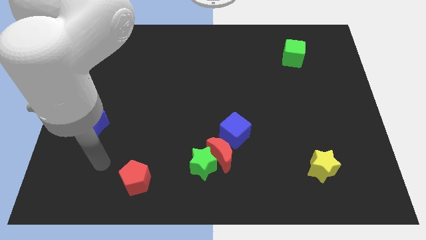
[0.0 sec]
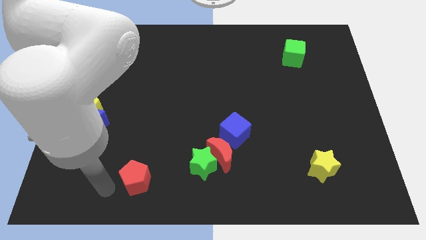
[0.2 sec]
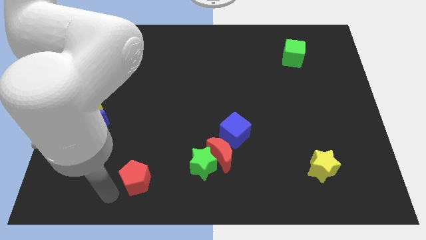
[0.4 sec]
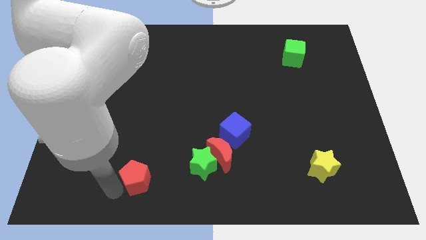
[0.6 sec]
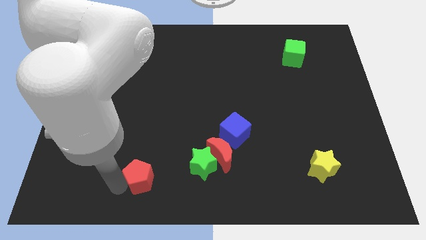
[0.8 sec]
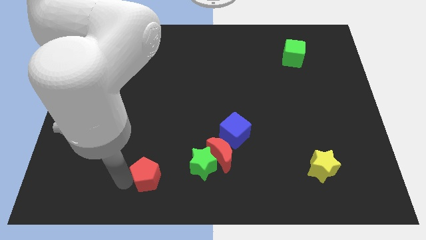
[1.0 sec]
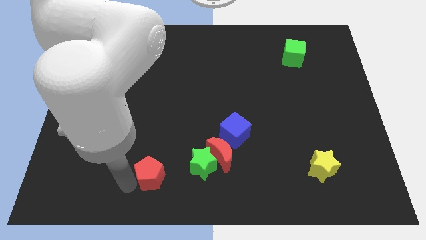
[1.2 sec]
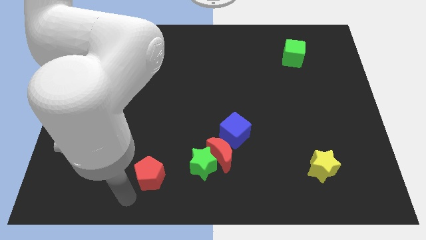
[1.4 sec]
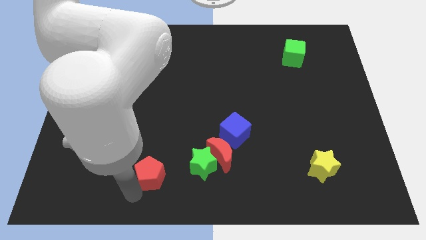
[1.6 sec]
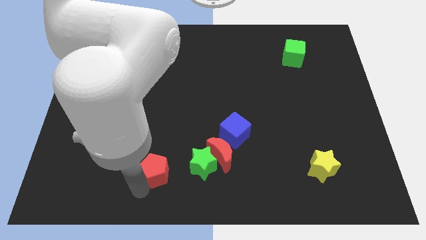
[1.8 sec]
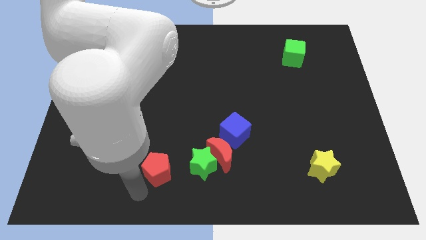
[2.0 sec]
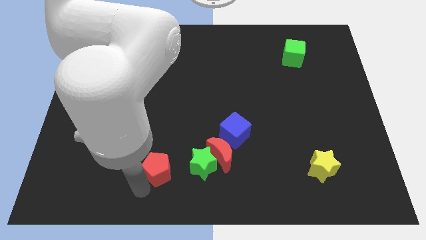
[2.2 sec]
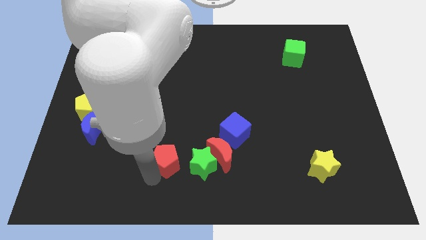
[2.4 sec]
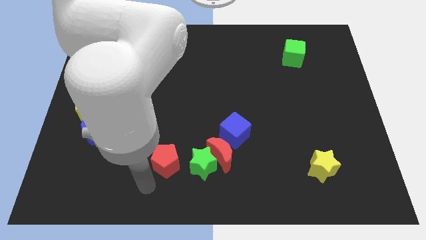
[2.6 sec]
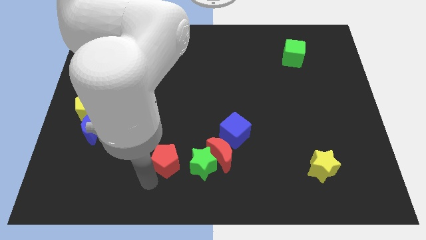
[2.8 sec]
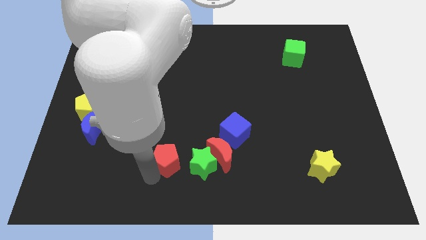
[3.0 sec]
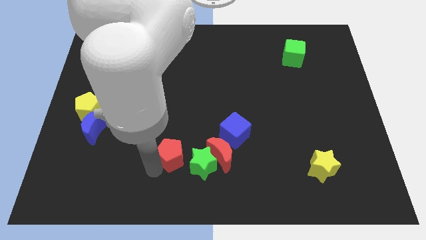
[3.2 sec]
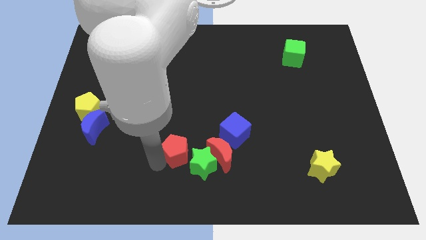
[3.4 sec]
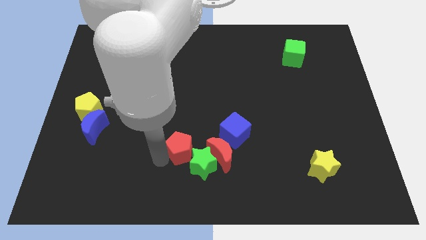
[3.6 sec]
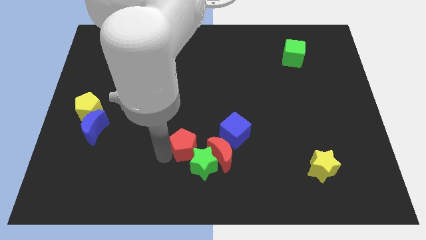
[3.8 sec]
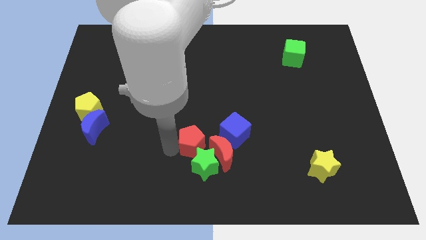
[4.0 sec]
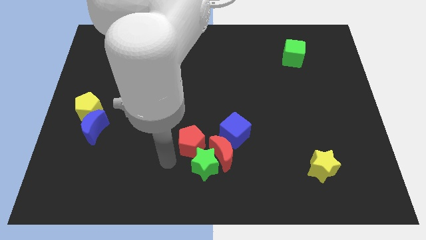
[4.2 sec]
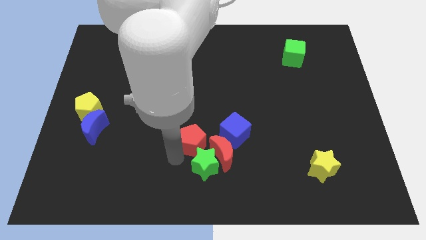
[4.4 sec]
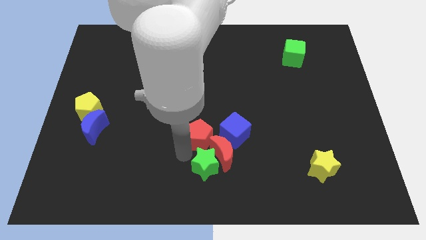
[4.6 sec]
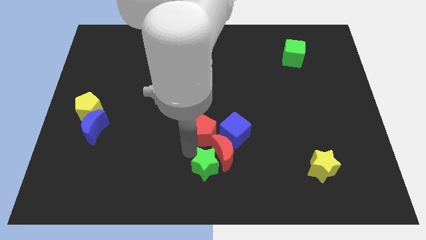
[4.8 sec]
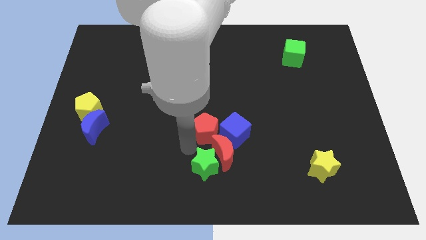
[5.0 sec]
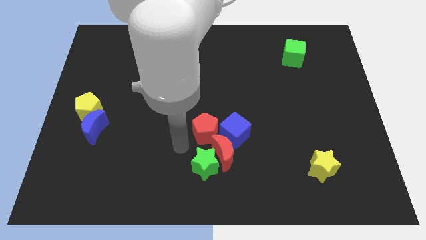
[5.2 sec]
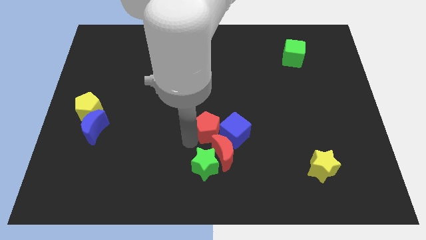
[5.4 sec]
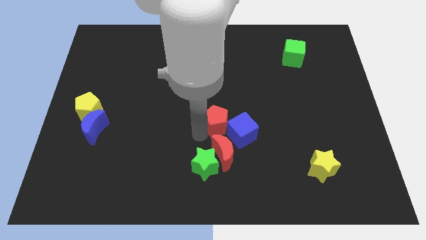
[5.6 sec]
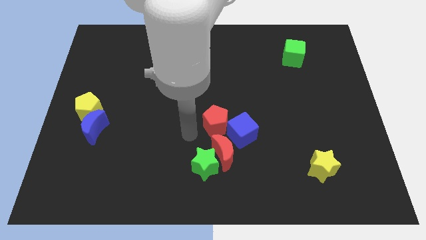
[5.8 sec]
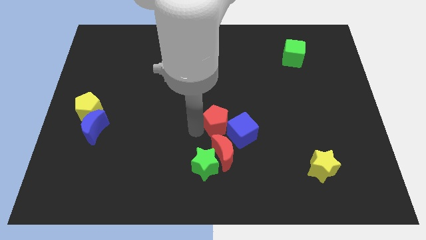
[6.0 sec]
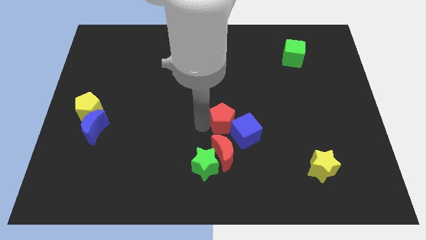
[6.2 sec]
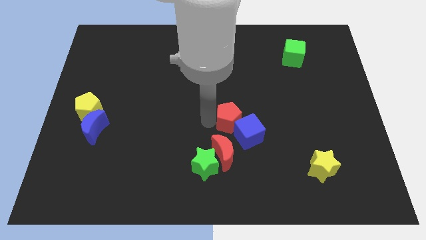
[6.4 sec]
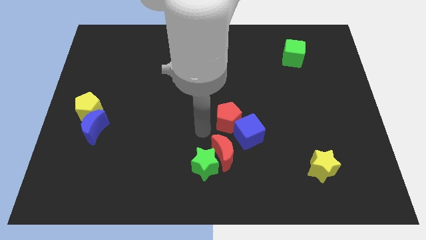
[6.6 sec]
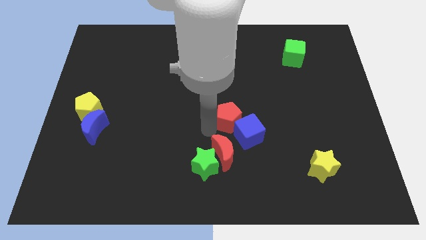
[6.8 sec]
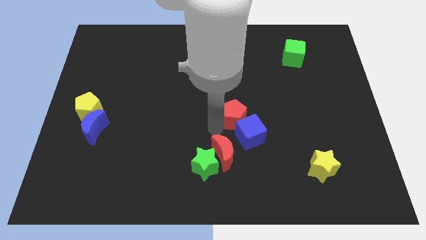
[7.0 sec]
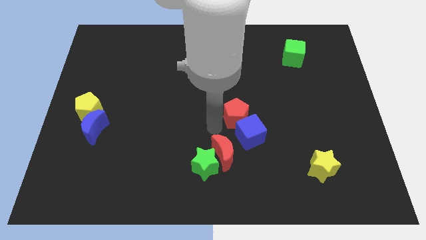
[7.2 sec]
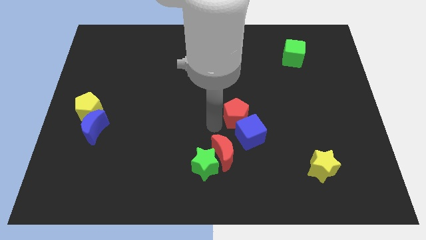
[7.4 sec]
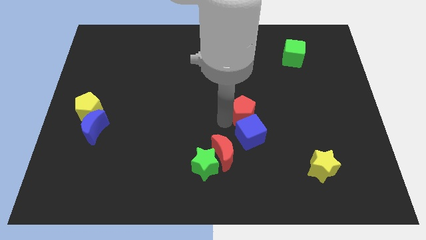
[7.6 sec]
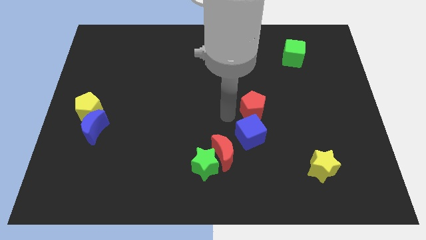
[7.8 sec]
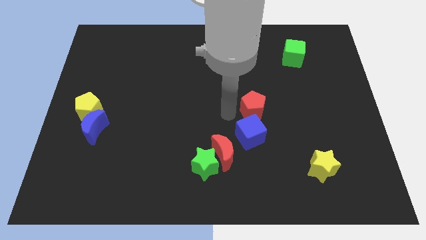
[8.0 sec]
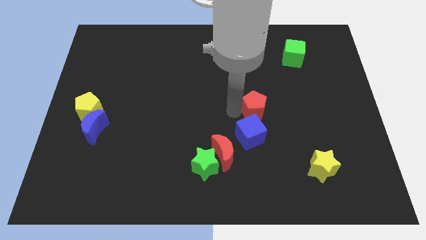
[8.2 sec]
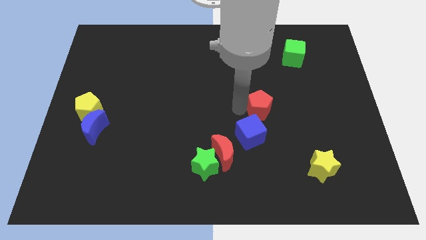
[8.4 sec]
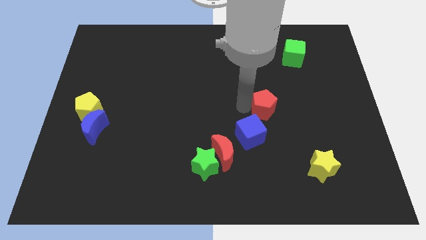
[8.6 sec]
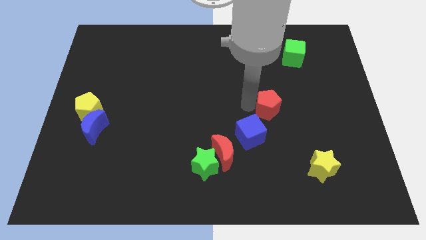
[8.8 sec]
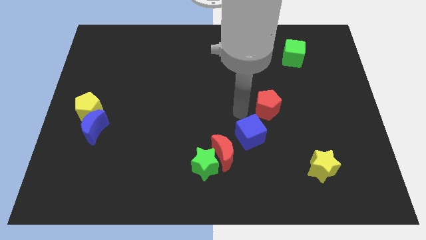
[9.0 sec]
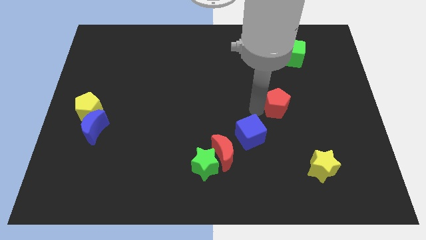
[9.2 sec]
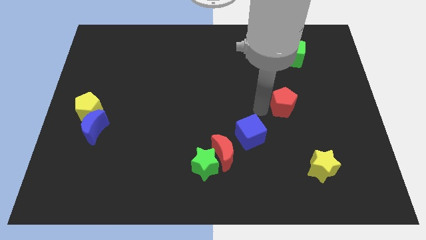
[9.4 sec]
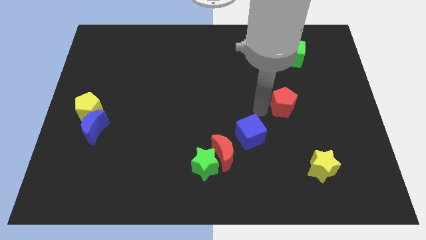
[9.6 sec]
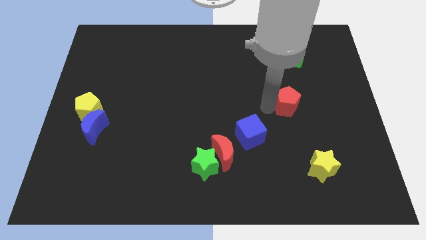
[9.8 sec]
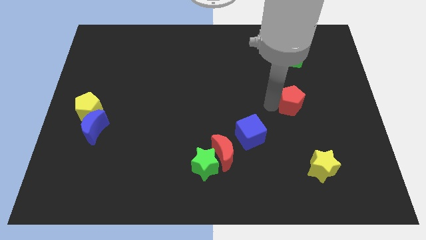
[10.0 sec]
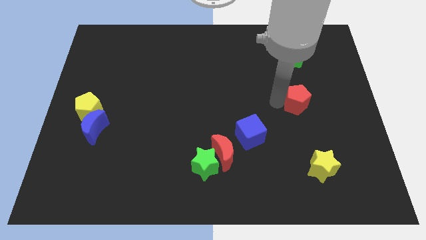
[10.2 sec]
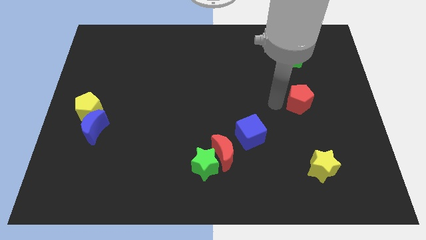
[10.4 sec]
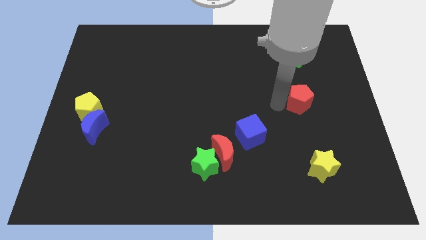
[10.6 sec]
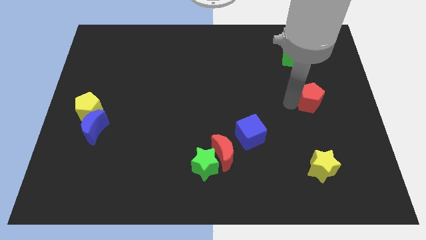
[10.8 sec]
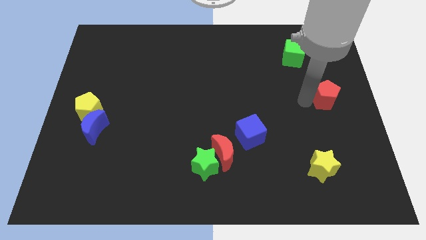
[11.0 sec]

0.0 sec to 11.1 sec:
move the red pentagon to the right side

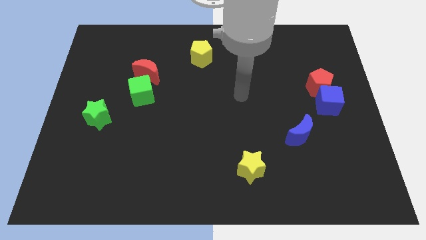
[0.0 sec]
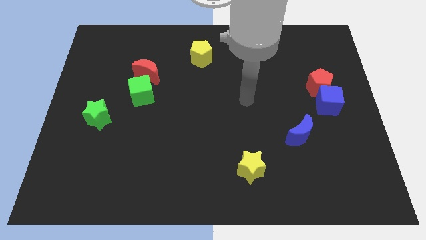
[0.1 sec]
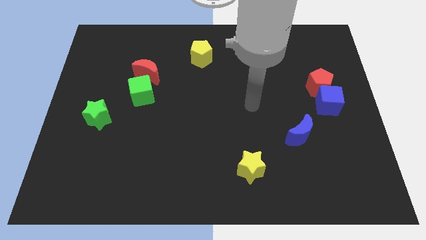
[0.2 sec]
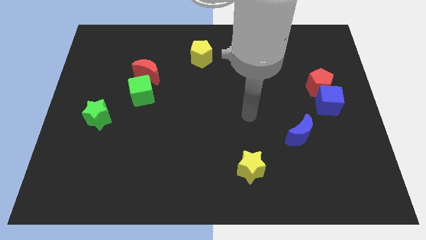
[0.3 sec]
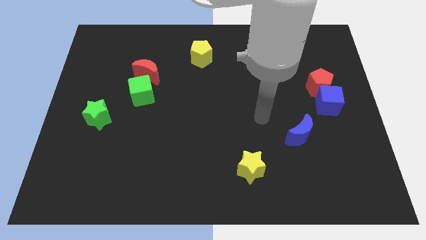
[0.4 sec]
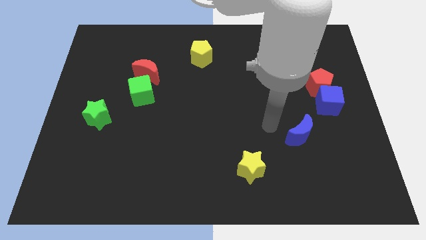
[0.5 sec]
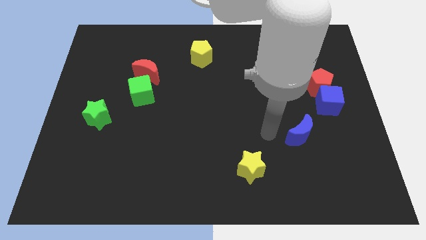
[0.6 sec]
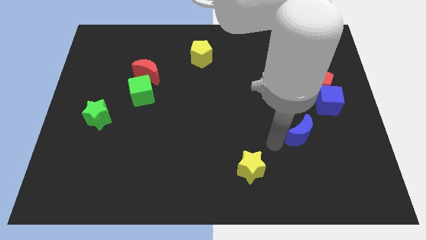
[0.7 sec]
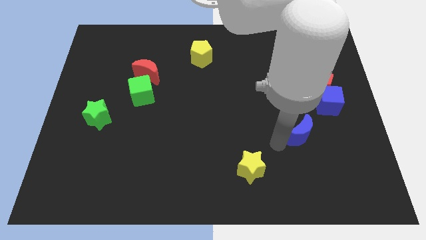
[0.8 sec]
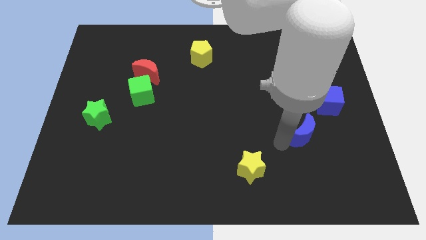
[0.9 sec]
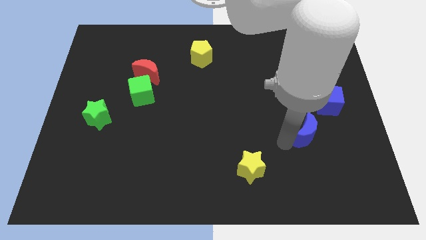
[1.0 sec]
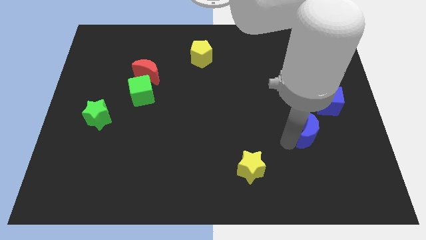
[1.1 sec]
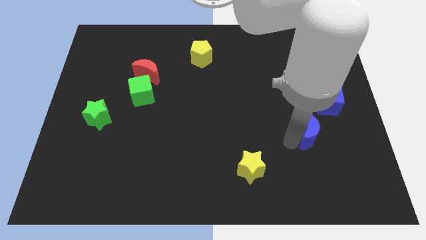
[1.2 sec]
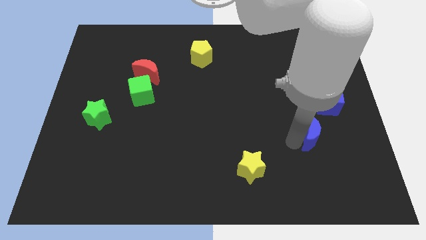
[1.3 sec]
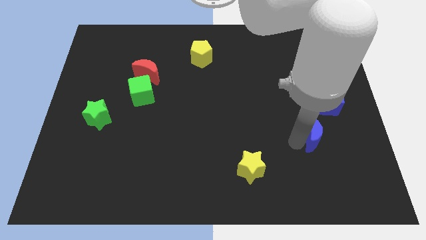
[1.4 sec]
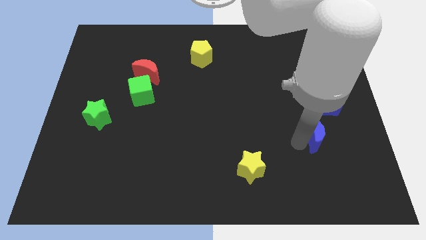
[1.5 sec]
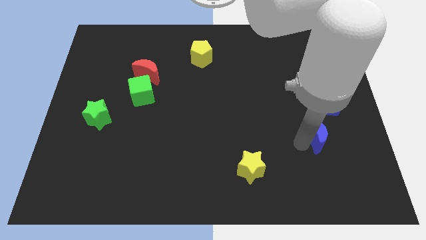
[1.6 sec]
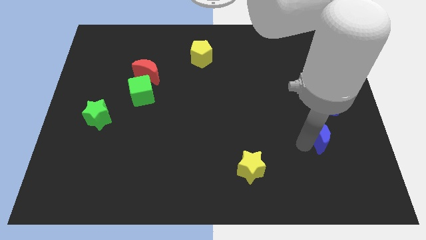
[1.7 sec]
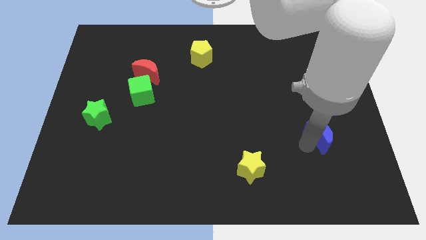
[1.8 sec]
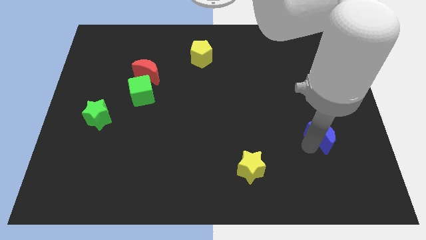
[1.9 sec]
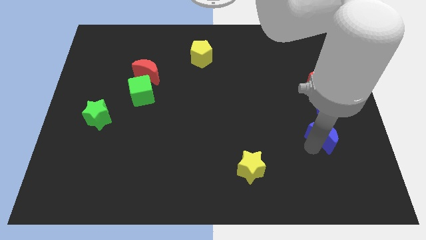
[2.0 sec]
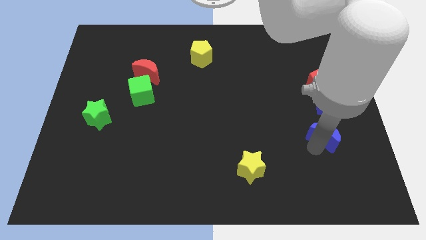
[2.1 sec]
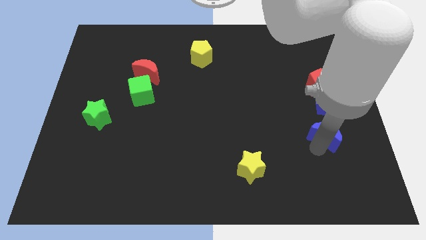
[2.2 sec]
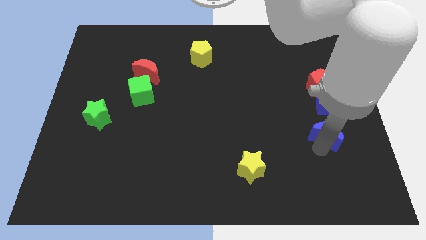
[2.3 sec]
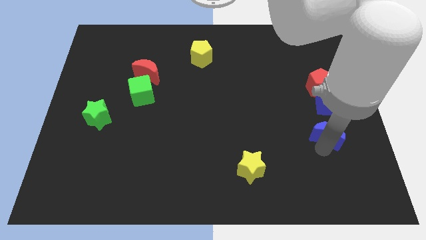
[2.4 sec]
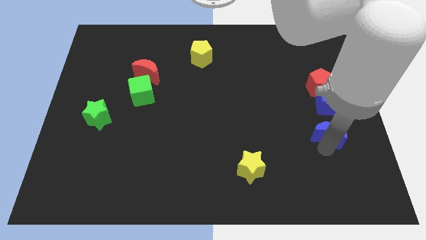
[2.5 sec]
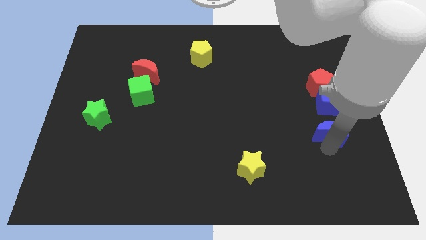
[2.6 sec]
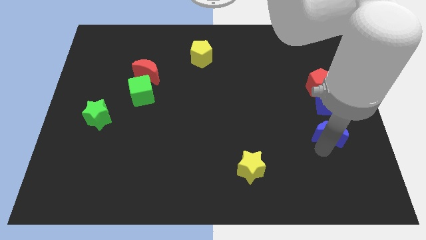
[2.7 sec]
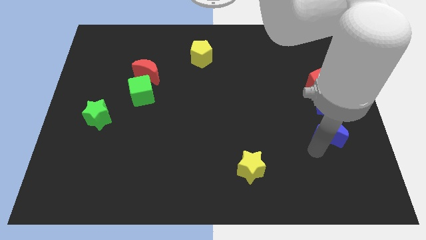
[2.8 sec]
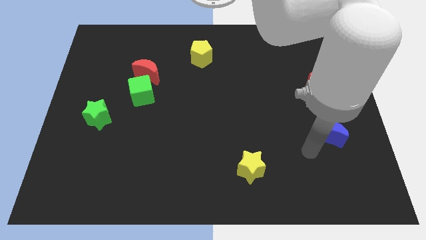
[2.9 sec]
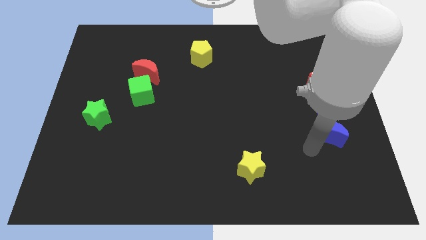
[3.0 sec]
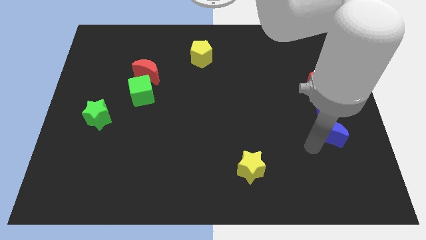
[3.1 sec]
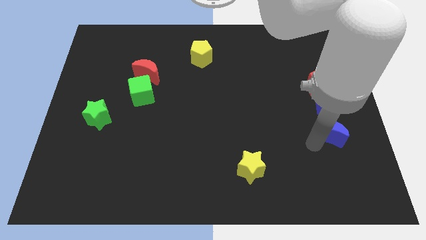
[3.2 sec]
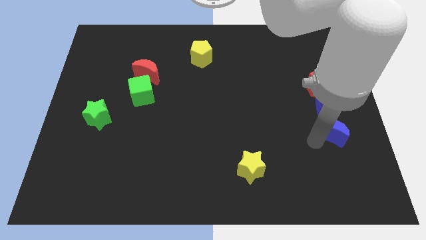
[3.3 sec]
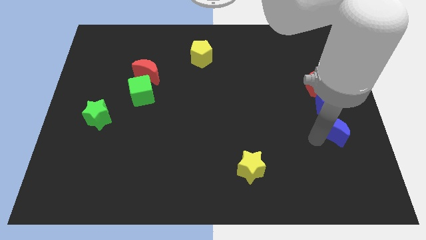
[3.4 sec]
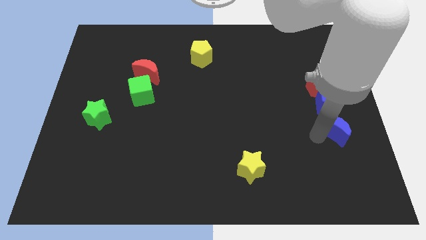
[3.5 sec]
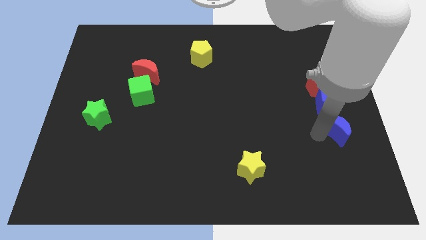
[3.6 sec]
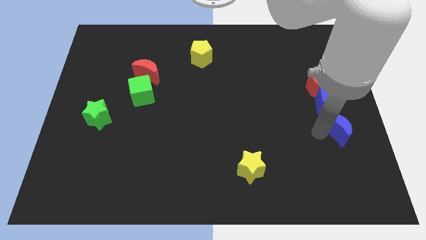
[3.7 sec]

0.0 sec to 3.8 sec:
put the blue moon to the center right
